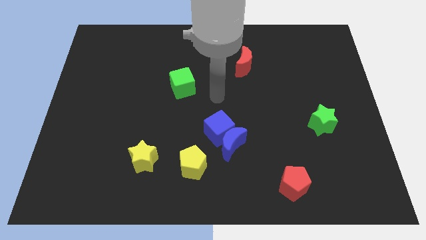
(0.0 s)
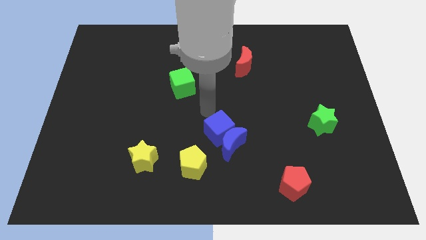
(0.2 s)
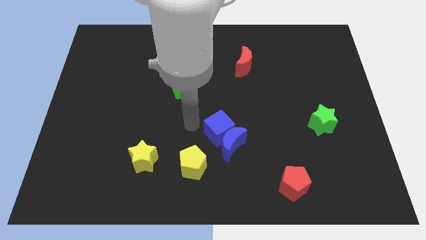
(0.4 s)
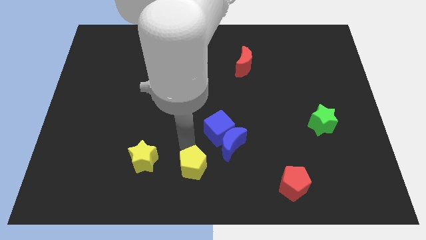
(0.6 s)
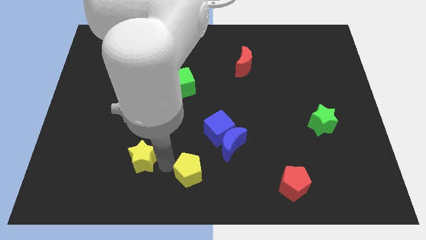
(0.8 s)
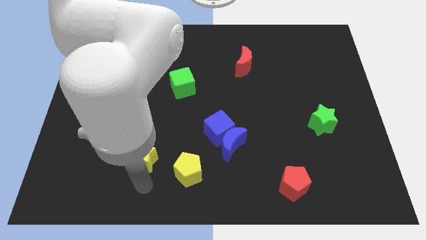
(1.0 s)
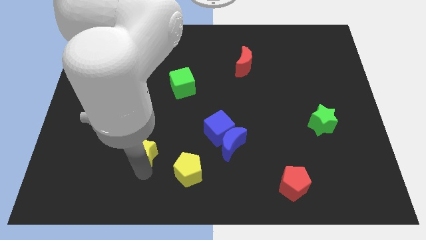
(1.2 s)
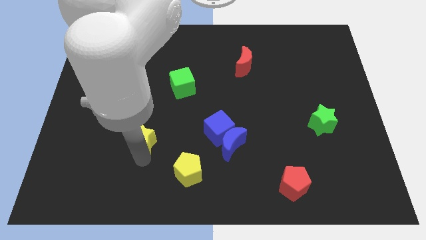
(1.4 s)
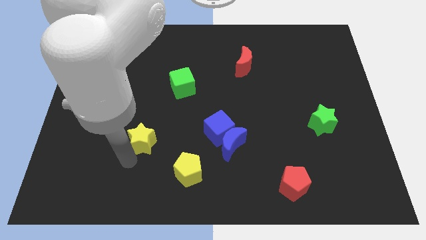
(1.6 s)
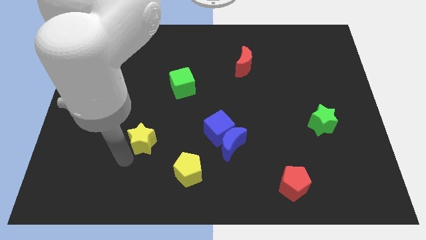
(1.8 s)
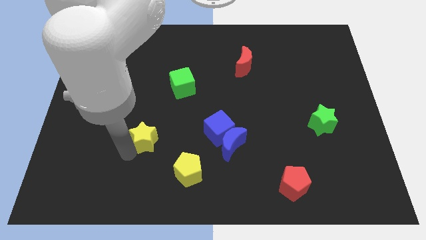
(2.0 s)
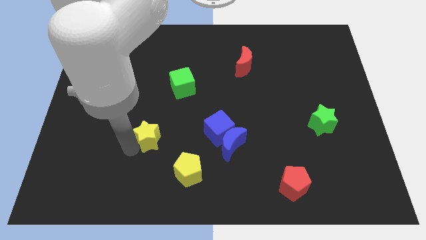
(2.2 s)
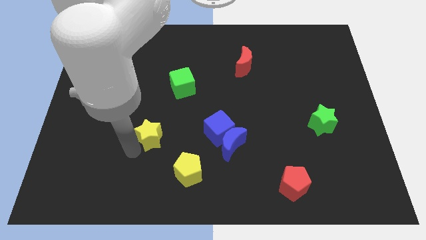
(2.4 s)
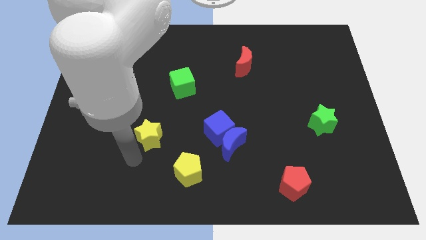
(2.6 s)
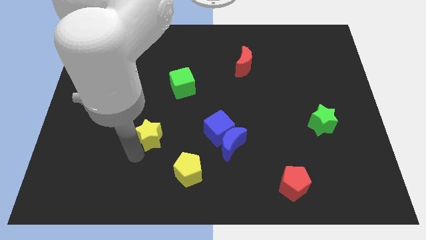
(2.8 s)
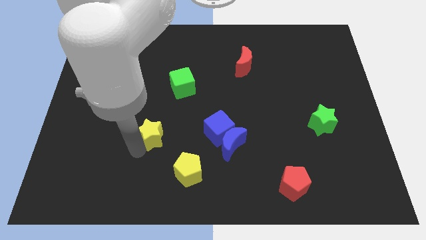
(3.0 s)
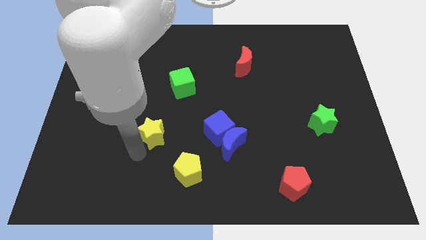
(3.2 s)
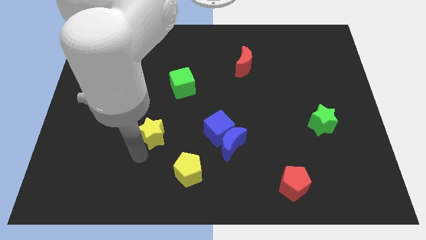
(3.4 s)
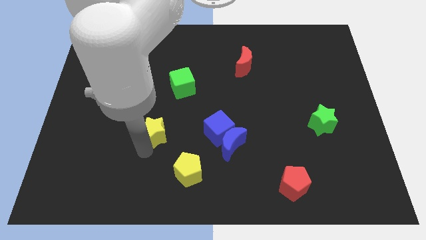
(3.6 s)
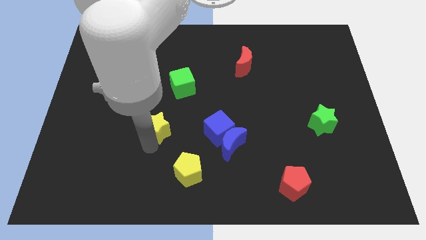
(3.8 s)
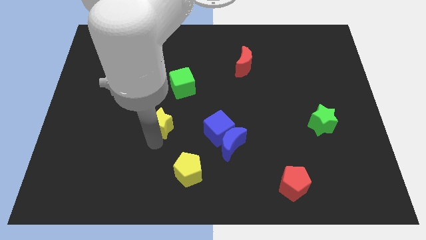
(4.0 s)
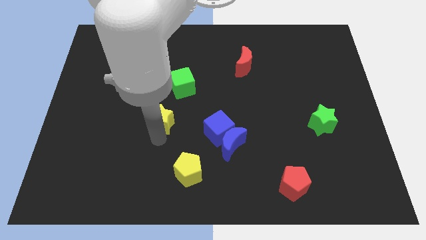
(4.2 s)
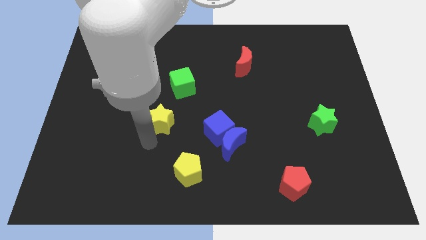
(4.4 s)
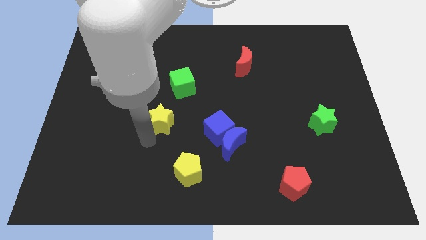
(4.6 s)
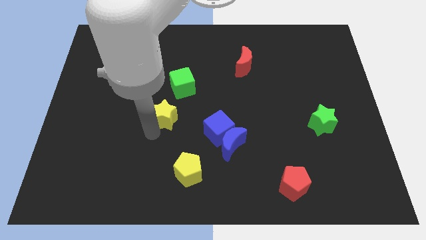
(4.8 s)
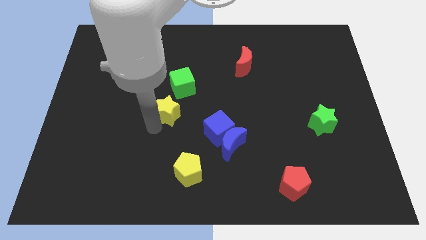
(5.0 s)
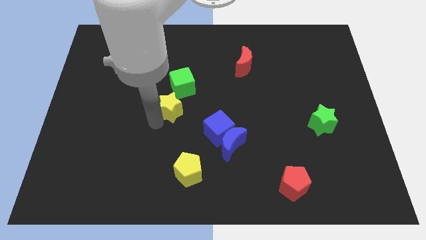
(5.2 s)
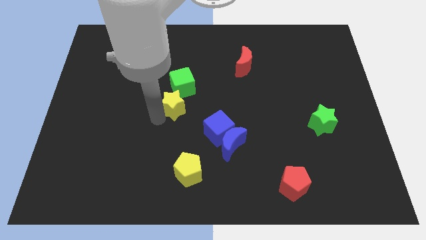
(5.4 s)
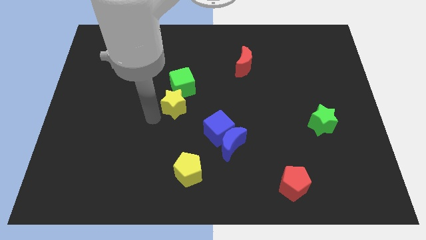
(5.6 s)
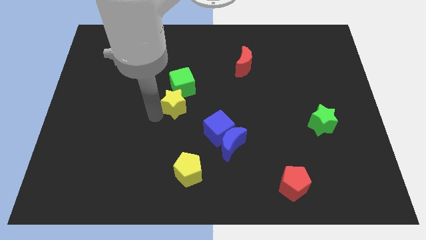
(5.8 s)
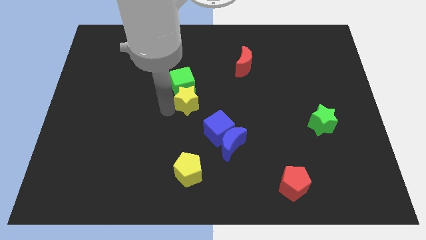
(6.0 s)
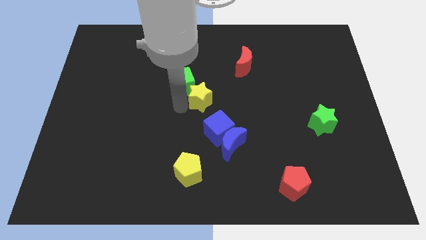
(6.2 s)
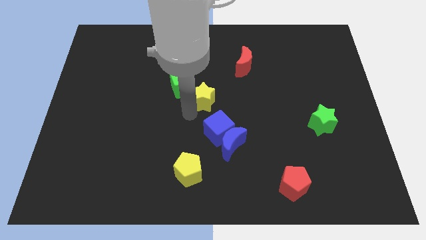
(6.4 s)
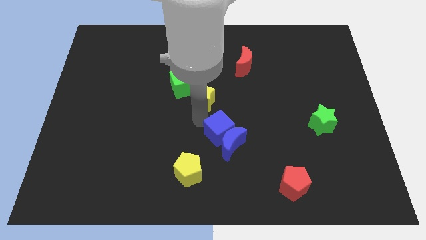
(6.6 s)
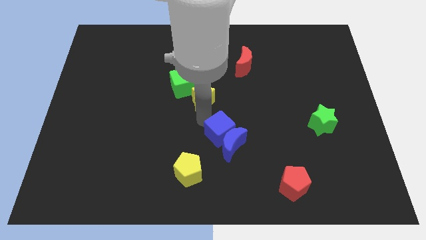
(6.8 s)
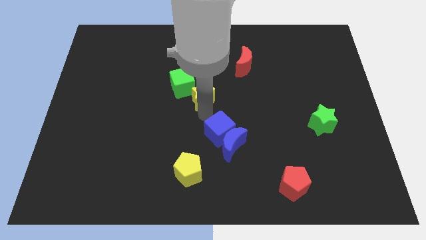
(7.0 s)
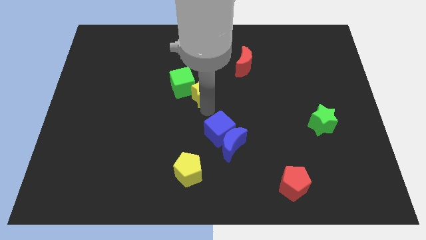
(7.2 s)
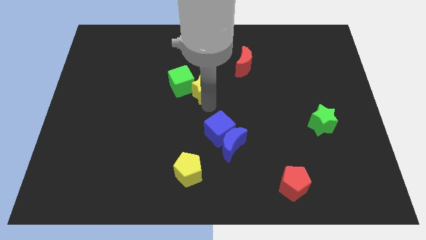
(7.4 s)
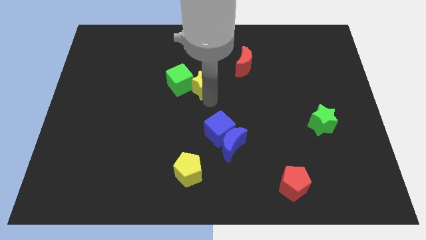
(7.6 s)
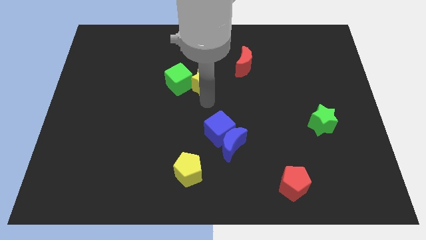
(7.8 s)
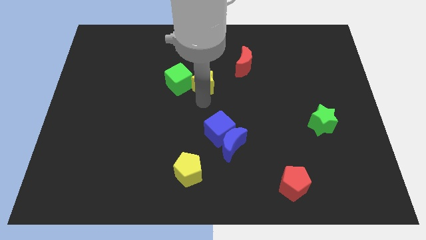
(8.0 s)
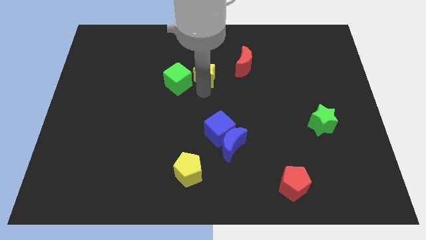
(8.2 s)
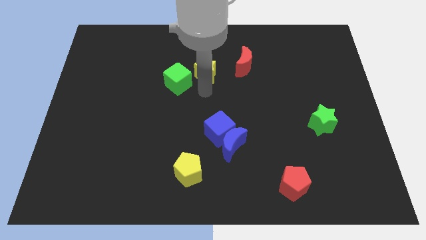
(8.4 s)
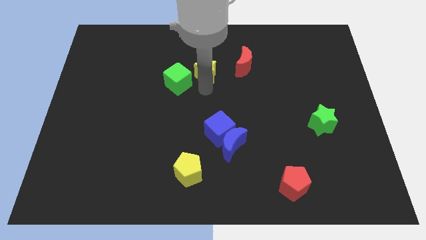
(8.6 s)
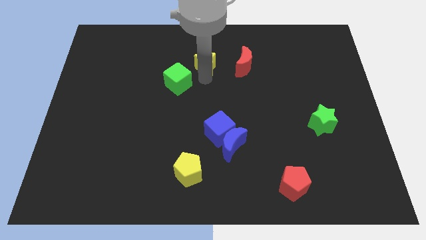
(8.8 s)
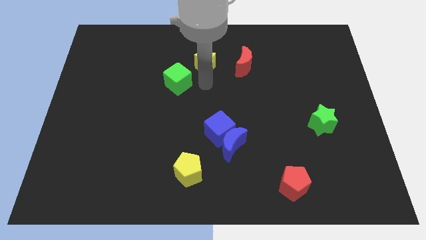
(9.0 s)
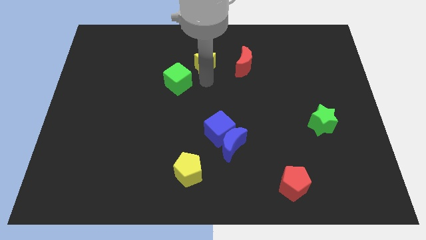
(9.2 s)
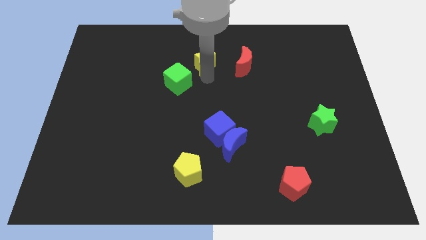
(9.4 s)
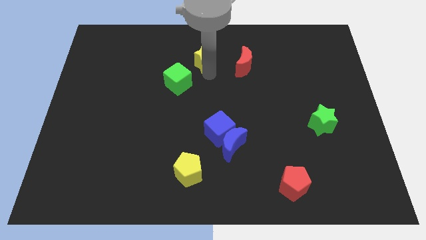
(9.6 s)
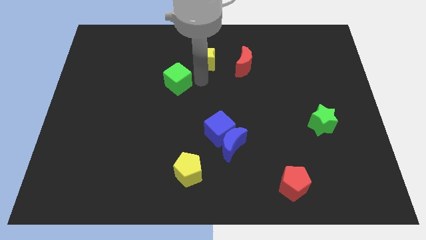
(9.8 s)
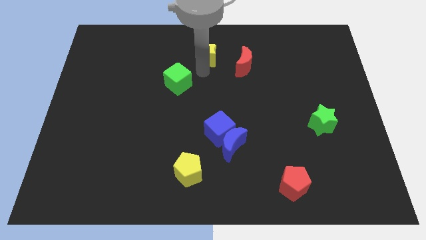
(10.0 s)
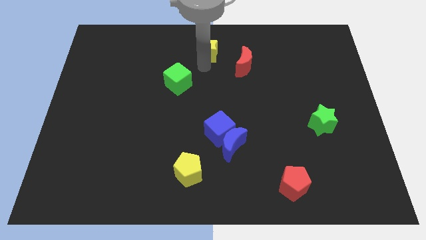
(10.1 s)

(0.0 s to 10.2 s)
push the yellow star to the top side

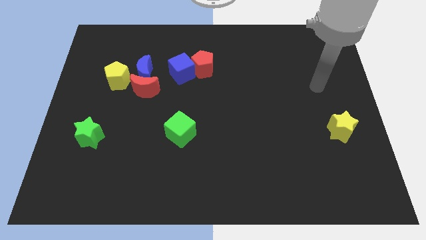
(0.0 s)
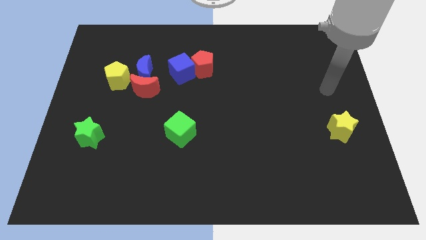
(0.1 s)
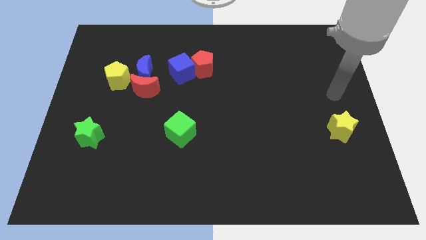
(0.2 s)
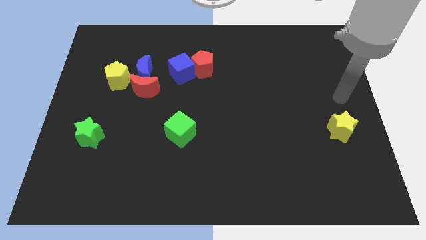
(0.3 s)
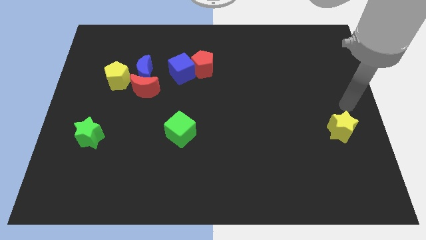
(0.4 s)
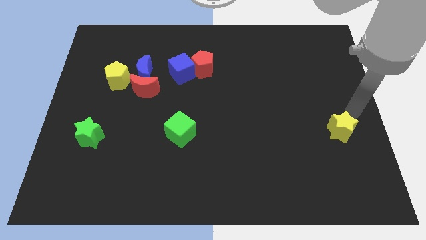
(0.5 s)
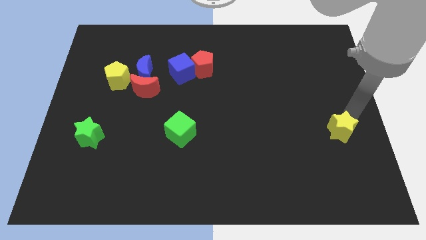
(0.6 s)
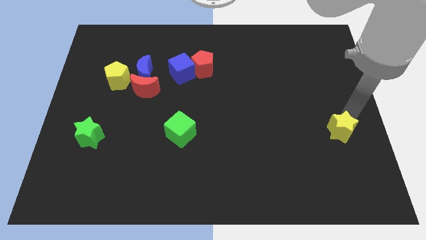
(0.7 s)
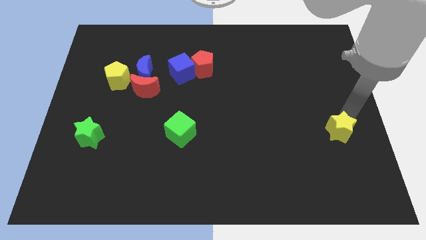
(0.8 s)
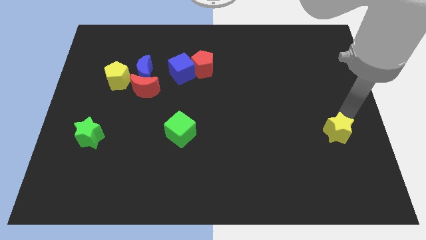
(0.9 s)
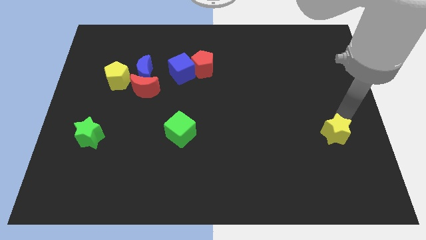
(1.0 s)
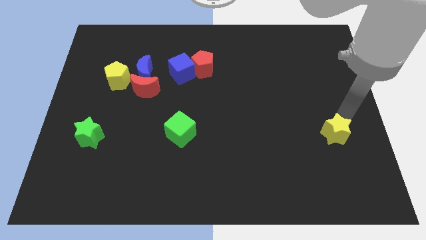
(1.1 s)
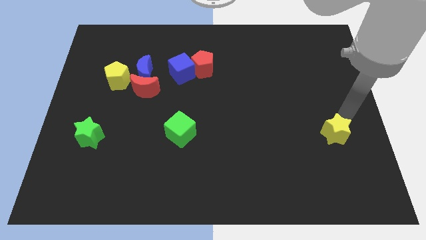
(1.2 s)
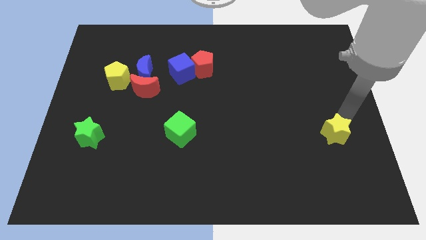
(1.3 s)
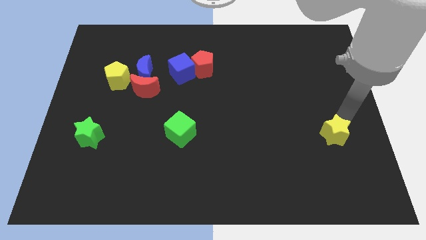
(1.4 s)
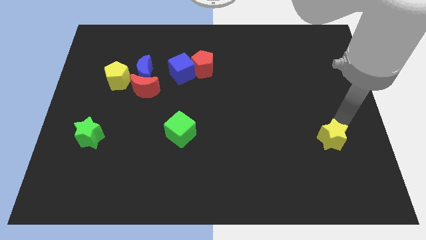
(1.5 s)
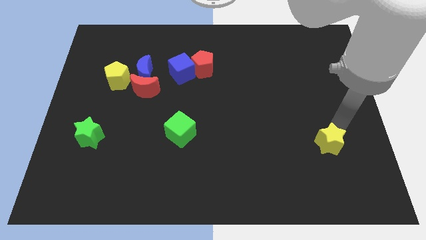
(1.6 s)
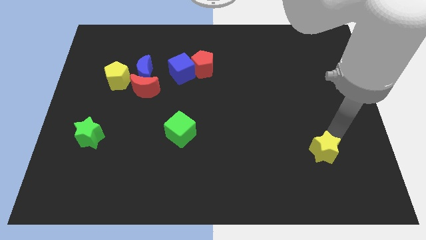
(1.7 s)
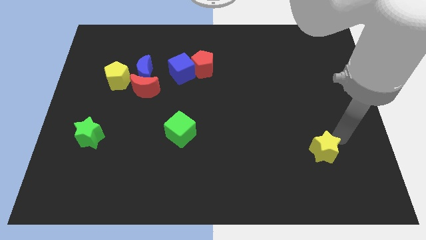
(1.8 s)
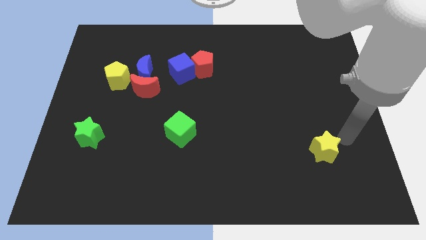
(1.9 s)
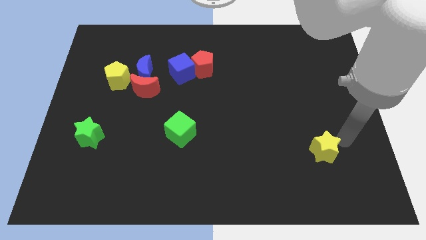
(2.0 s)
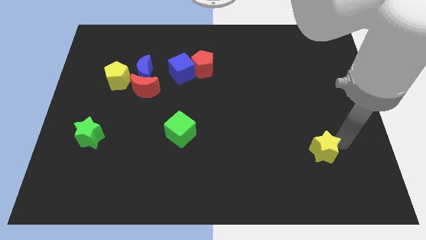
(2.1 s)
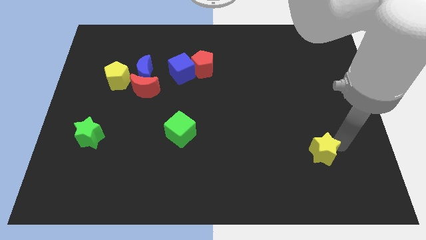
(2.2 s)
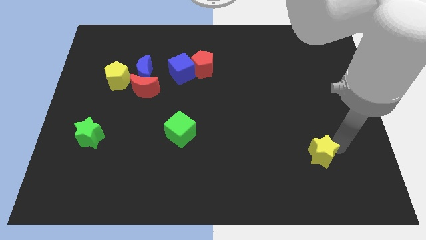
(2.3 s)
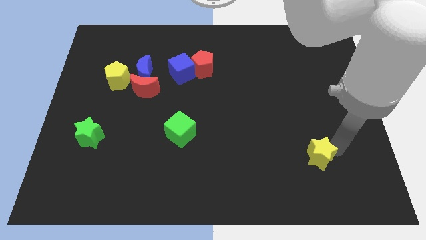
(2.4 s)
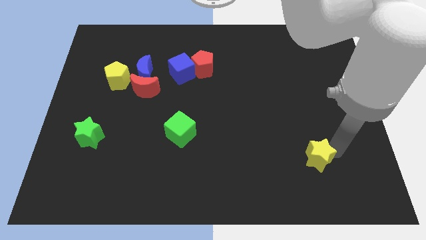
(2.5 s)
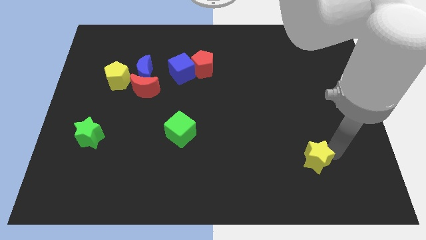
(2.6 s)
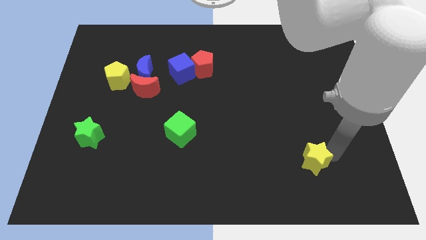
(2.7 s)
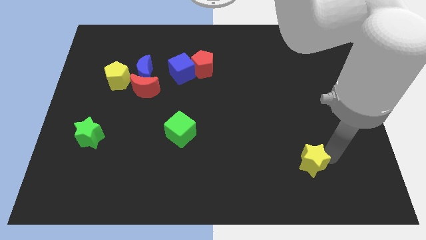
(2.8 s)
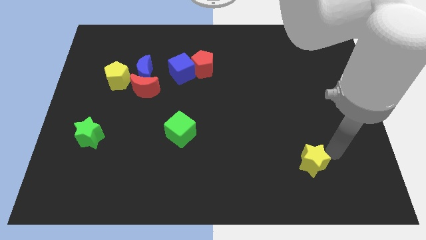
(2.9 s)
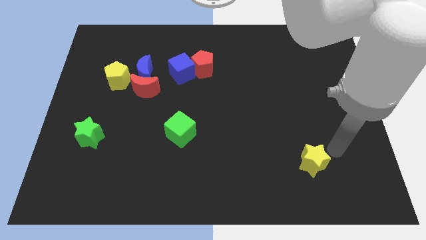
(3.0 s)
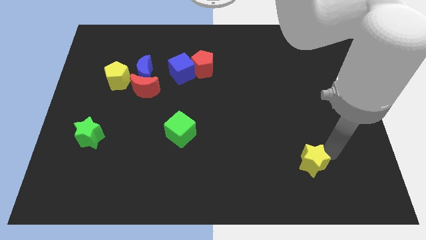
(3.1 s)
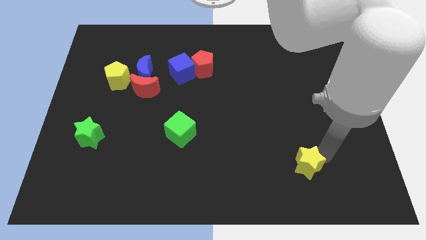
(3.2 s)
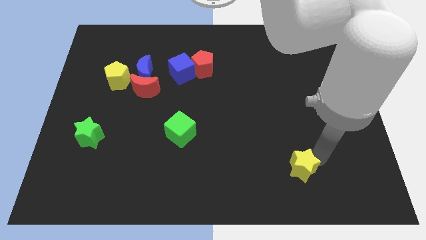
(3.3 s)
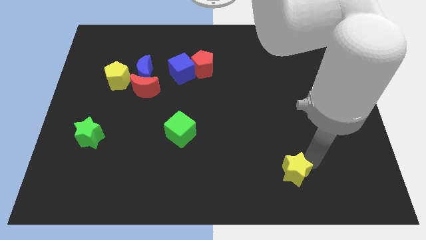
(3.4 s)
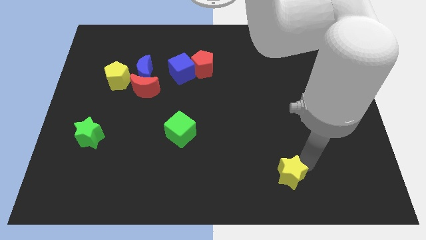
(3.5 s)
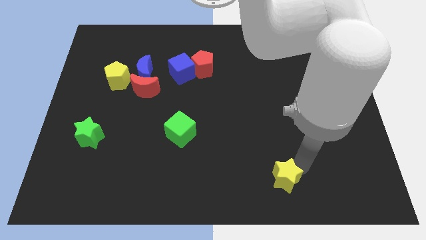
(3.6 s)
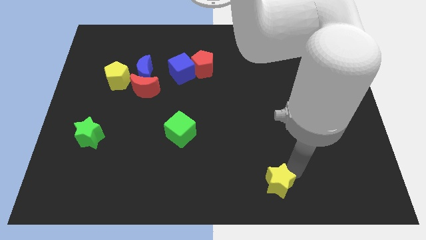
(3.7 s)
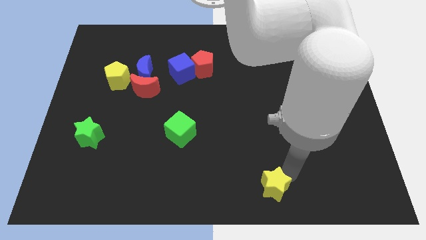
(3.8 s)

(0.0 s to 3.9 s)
put the yellow star to the bottom side
